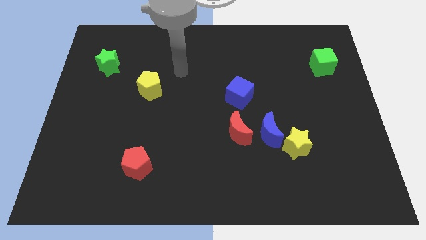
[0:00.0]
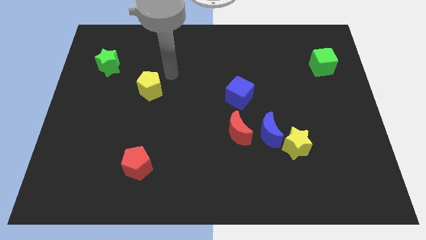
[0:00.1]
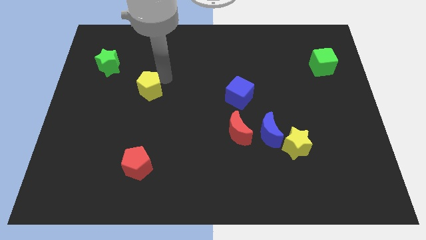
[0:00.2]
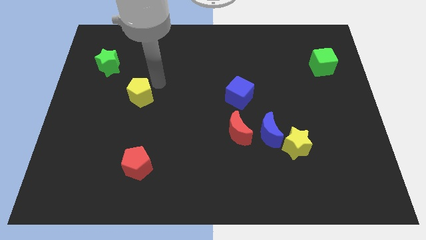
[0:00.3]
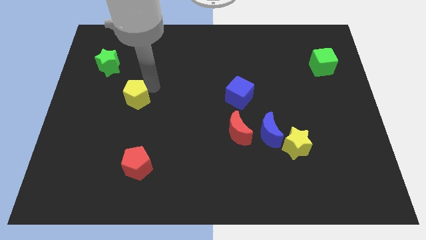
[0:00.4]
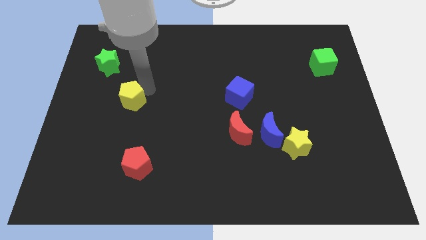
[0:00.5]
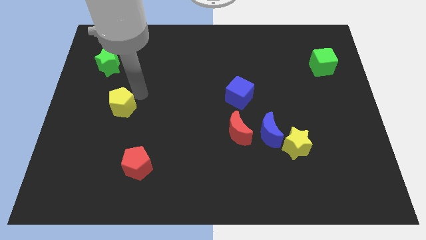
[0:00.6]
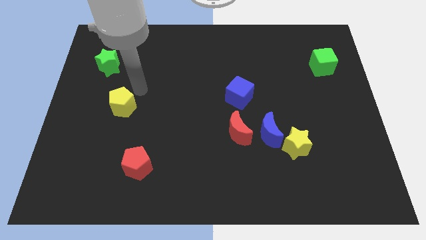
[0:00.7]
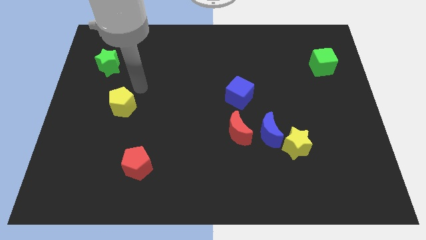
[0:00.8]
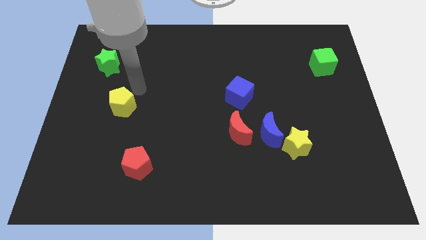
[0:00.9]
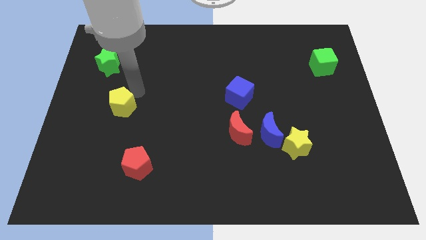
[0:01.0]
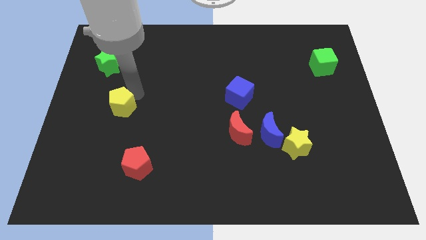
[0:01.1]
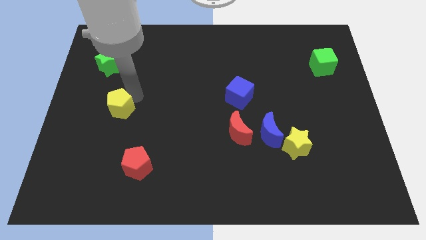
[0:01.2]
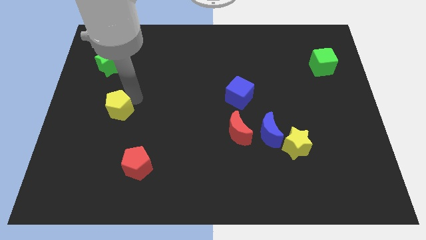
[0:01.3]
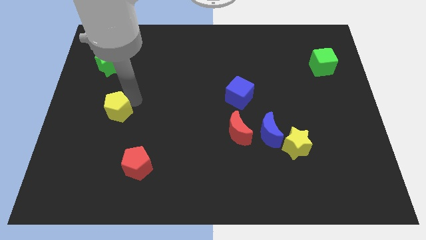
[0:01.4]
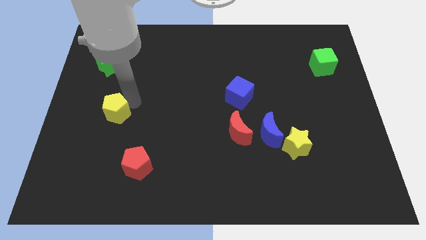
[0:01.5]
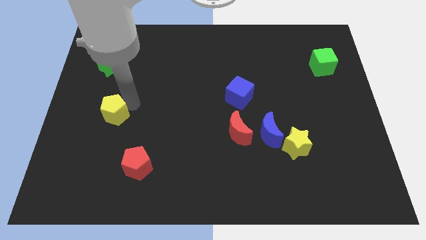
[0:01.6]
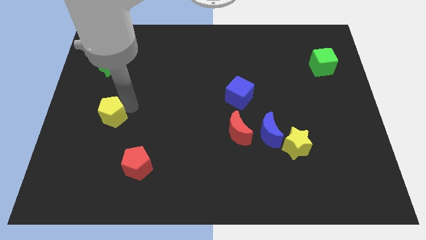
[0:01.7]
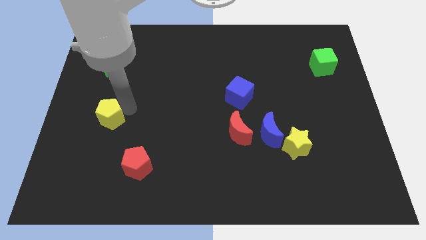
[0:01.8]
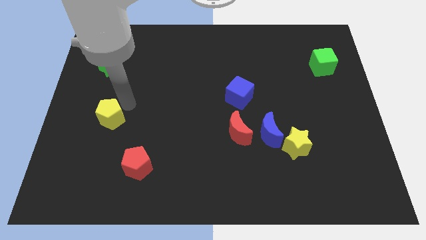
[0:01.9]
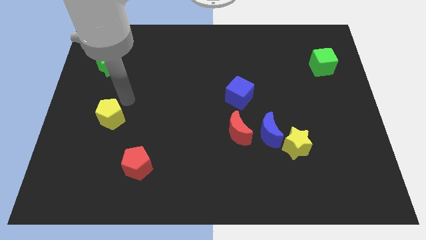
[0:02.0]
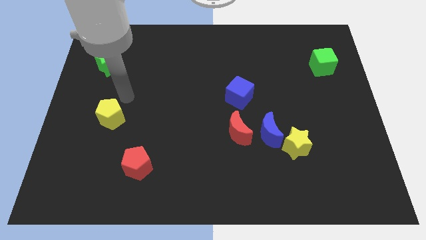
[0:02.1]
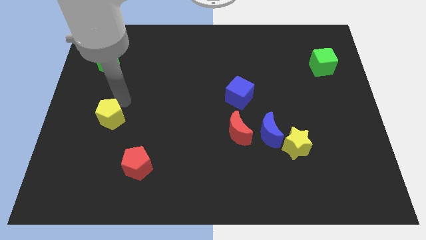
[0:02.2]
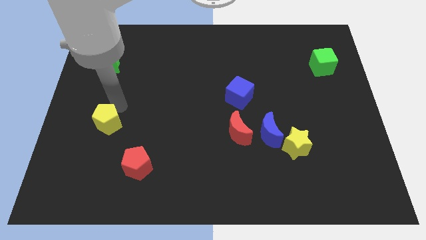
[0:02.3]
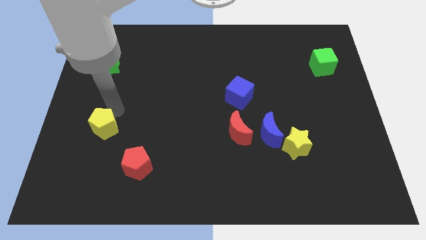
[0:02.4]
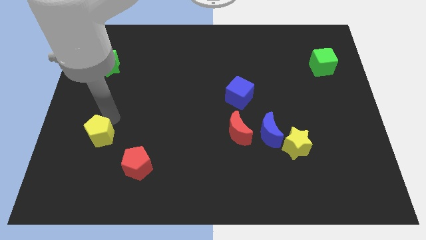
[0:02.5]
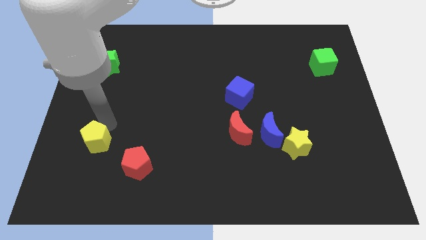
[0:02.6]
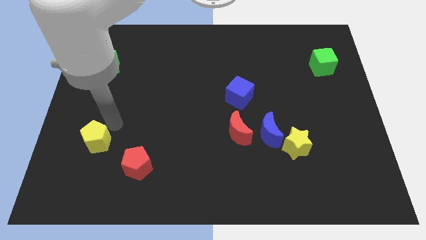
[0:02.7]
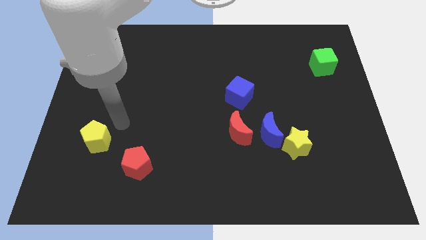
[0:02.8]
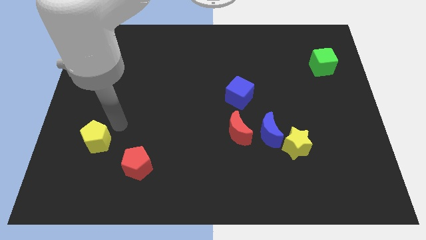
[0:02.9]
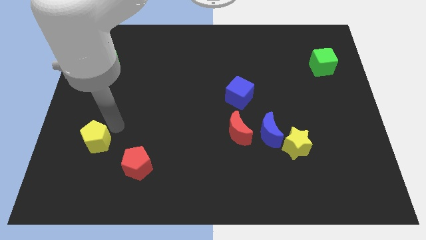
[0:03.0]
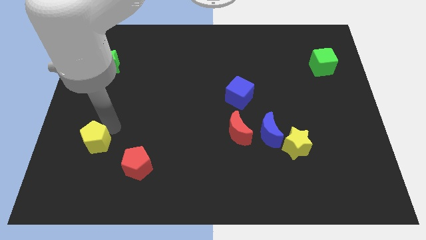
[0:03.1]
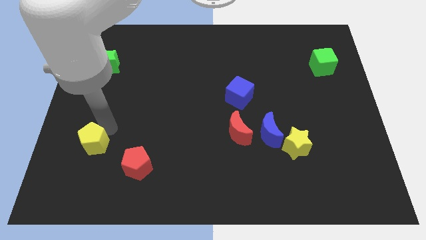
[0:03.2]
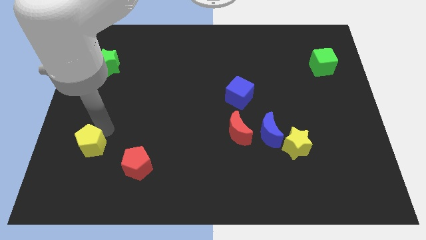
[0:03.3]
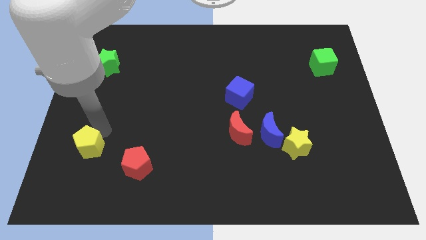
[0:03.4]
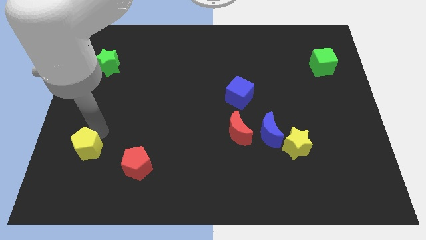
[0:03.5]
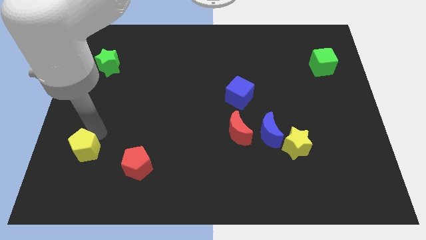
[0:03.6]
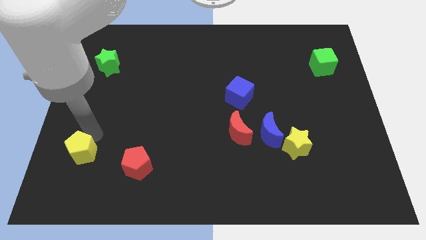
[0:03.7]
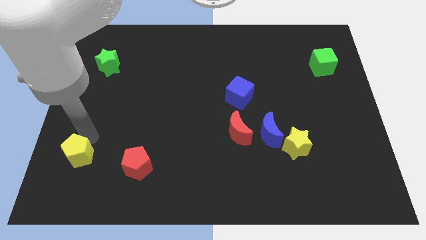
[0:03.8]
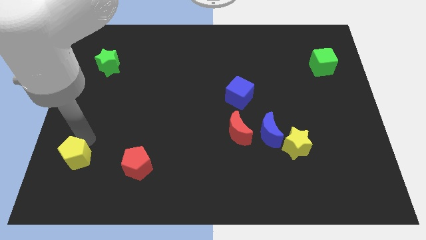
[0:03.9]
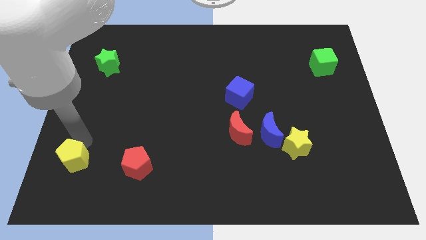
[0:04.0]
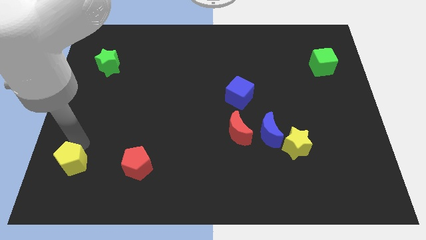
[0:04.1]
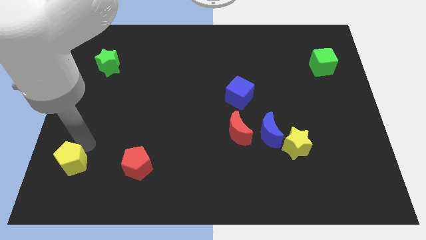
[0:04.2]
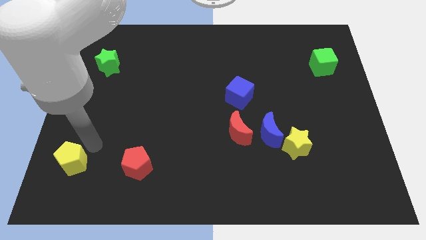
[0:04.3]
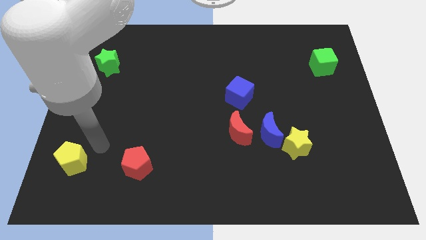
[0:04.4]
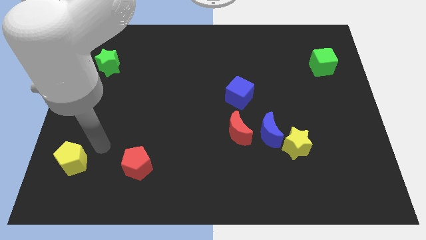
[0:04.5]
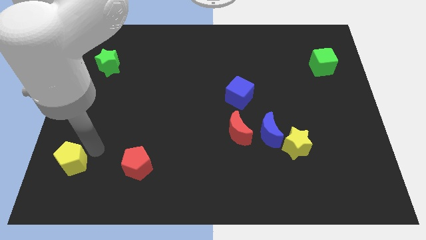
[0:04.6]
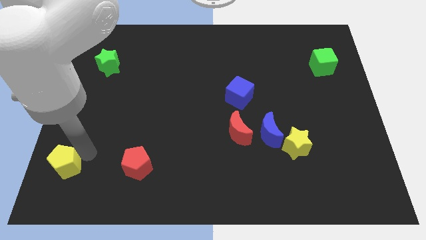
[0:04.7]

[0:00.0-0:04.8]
push the yellow pentagon to the bottom left corner

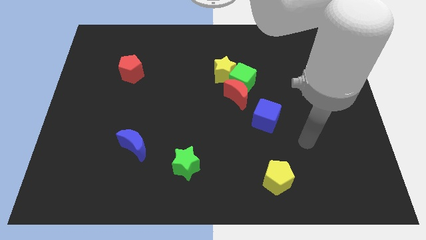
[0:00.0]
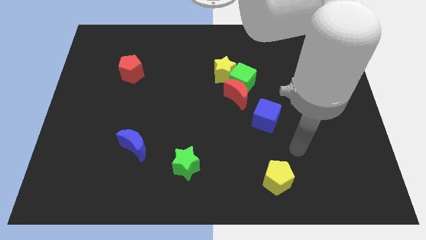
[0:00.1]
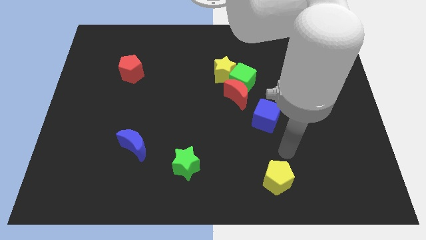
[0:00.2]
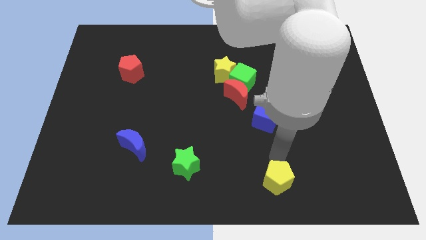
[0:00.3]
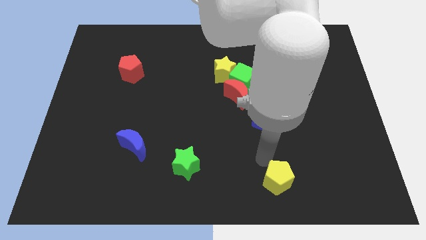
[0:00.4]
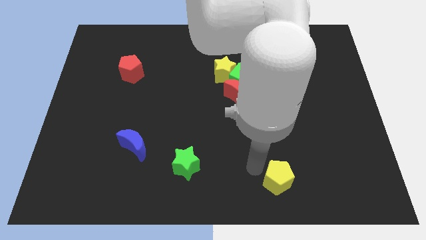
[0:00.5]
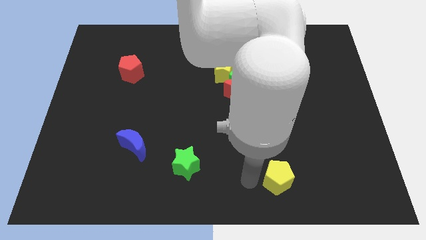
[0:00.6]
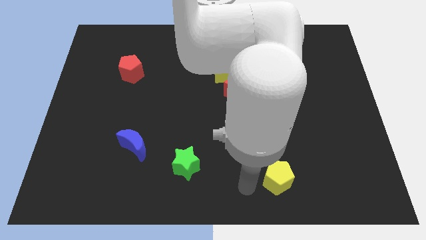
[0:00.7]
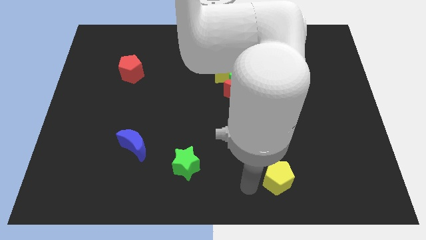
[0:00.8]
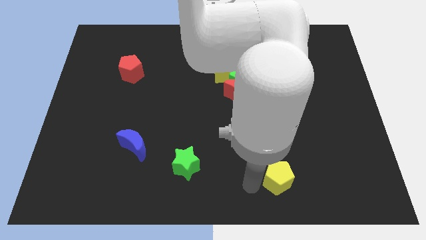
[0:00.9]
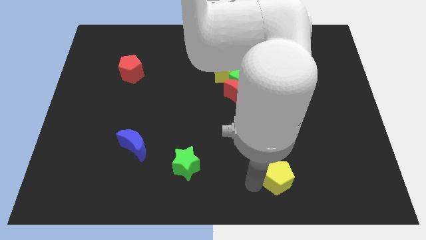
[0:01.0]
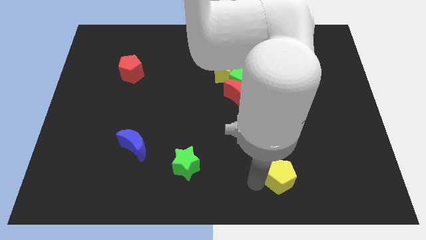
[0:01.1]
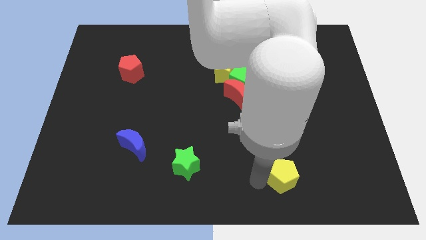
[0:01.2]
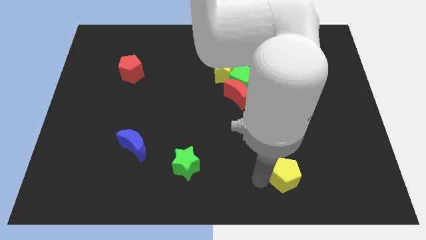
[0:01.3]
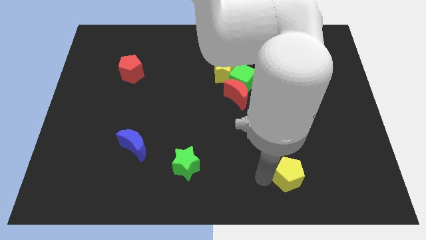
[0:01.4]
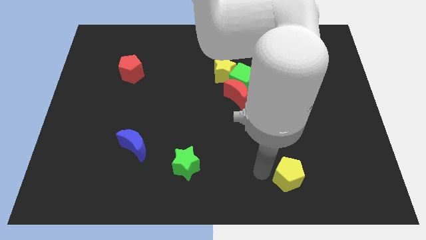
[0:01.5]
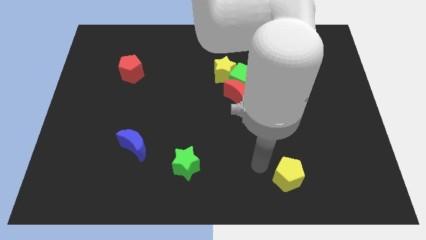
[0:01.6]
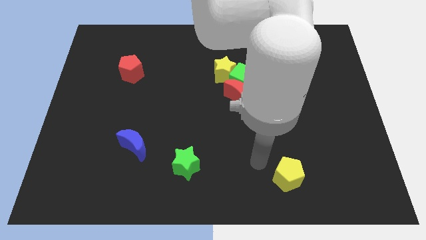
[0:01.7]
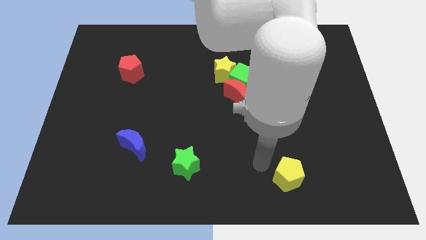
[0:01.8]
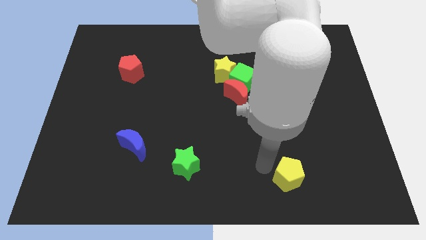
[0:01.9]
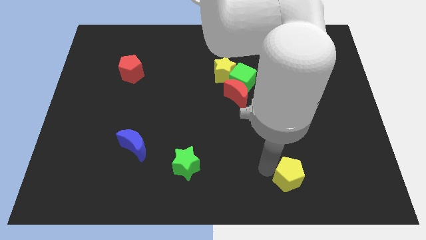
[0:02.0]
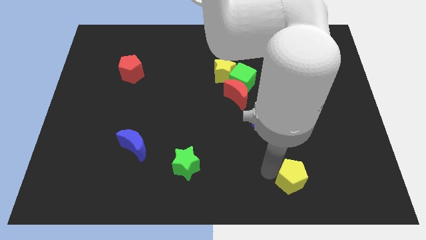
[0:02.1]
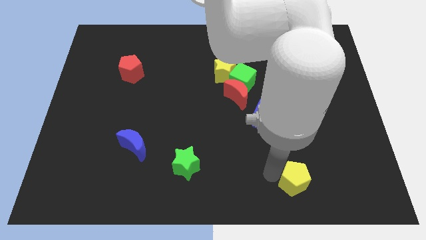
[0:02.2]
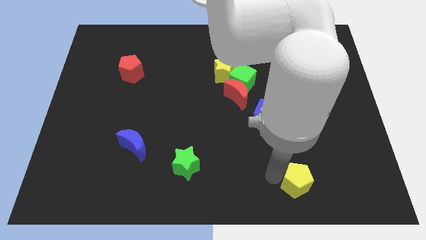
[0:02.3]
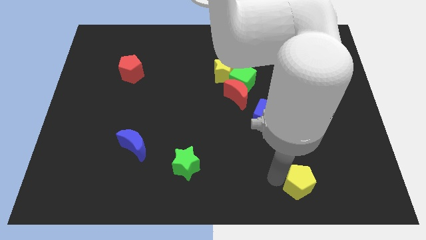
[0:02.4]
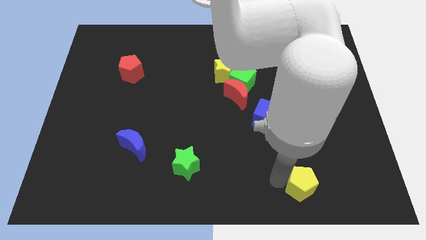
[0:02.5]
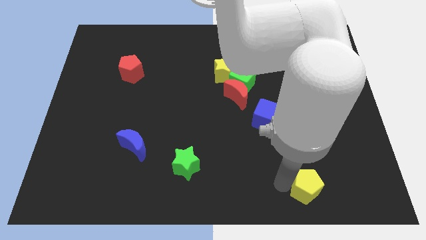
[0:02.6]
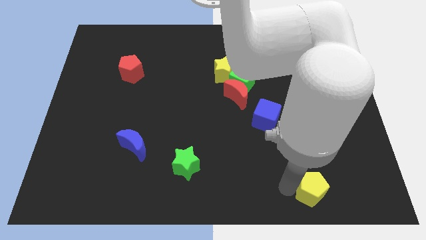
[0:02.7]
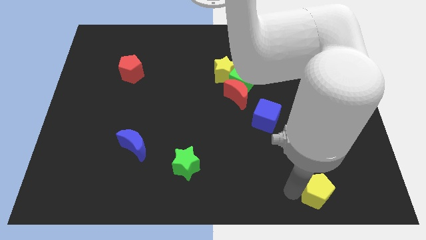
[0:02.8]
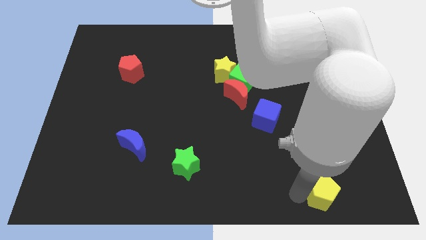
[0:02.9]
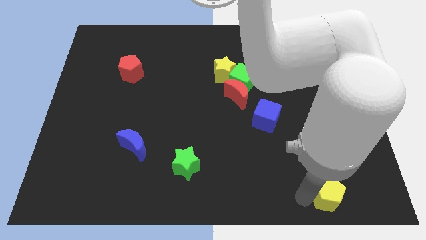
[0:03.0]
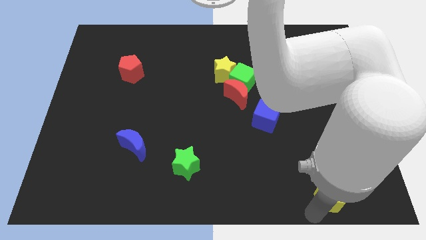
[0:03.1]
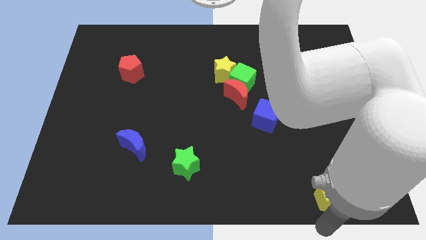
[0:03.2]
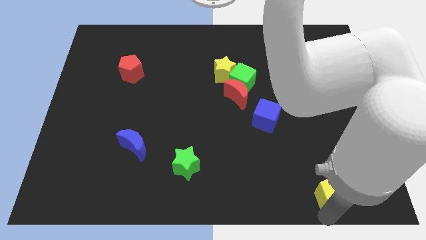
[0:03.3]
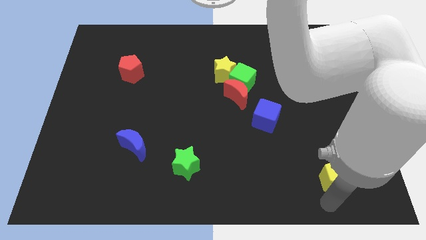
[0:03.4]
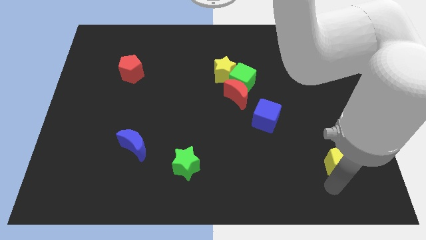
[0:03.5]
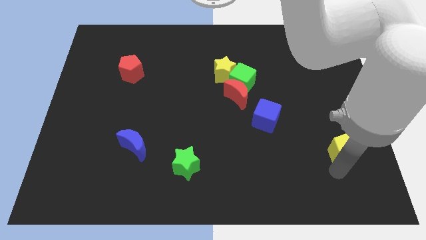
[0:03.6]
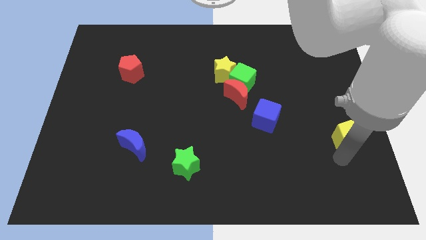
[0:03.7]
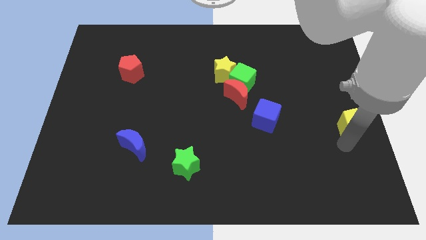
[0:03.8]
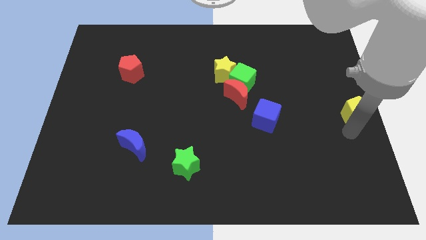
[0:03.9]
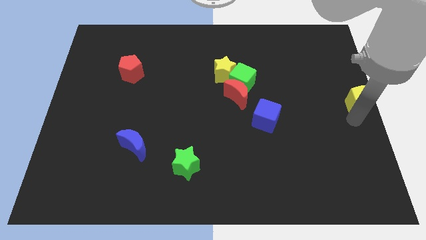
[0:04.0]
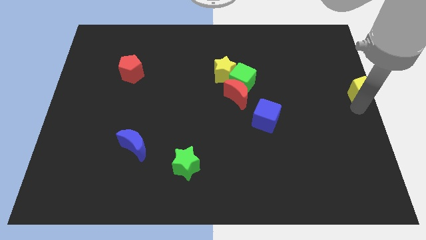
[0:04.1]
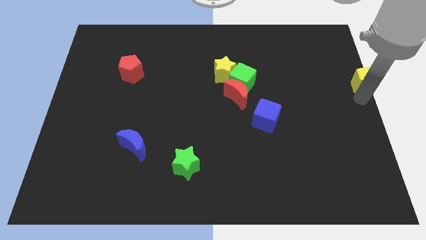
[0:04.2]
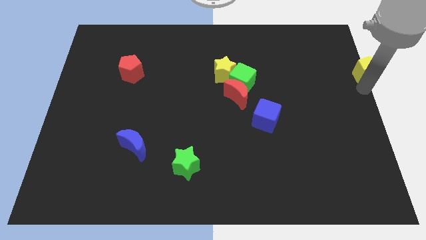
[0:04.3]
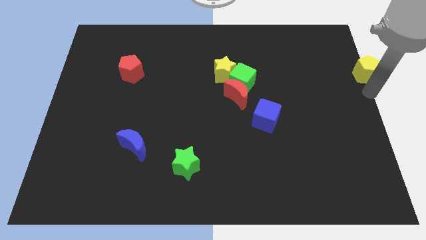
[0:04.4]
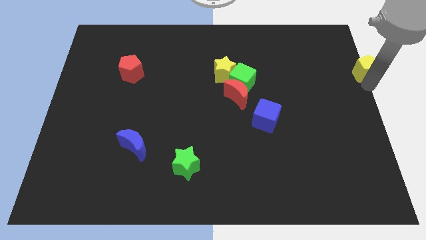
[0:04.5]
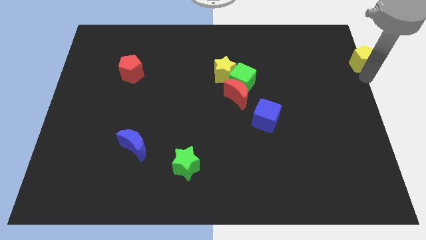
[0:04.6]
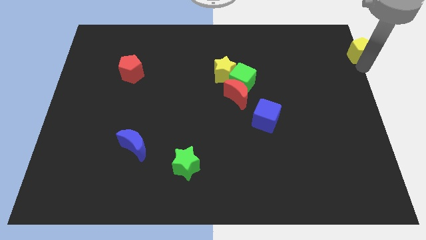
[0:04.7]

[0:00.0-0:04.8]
move the yellow pentagon to the upper right corner
